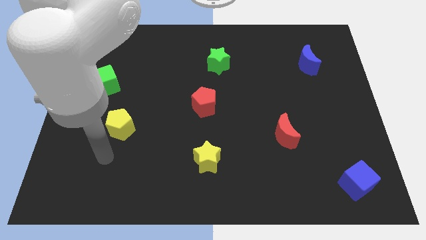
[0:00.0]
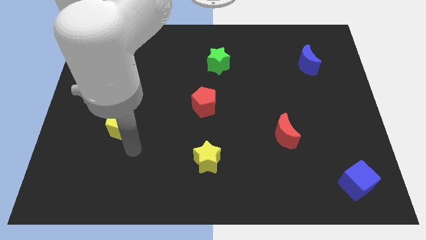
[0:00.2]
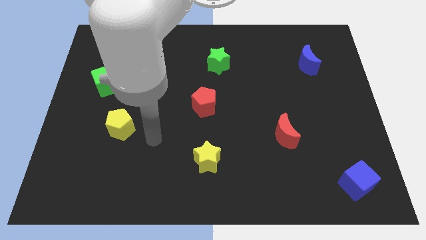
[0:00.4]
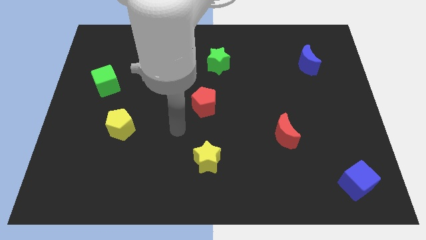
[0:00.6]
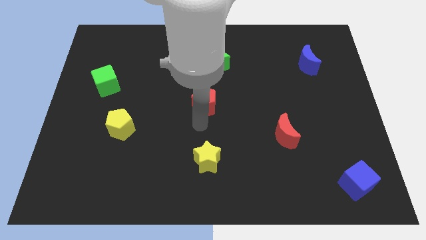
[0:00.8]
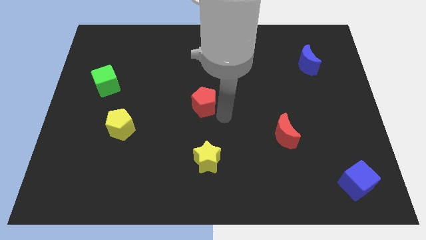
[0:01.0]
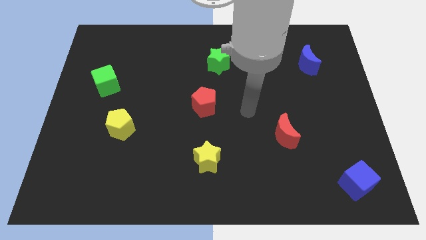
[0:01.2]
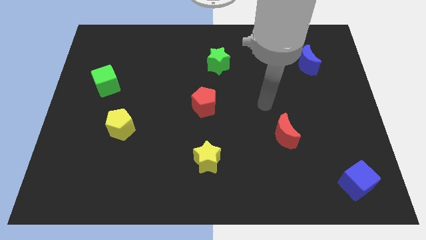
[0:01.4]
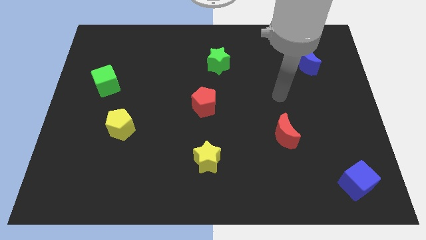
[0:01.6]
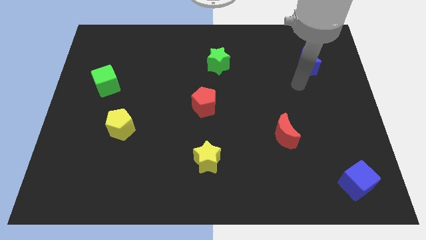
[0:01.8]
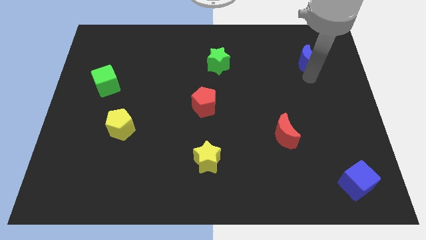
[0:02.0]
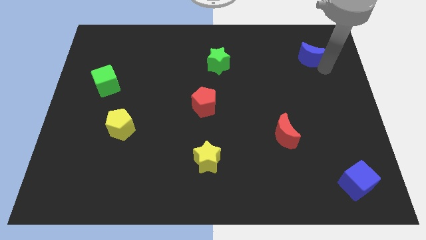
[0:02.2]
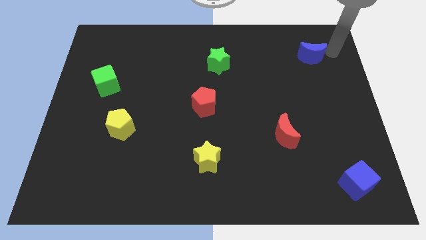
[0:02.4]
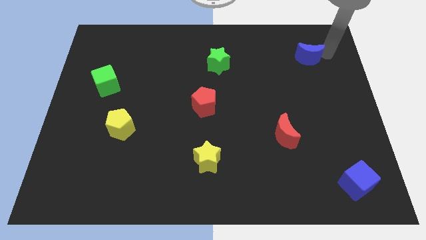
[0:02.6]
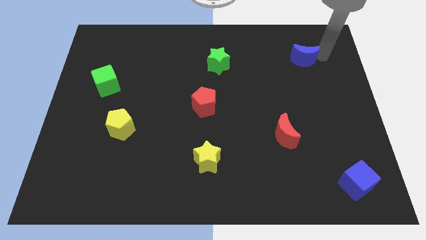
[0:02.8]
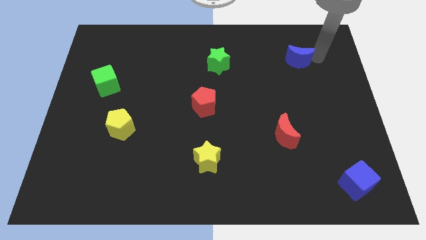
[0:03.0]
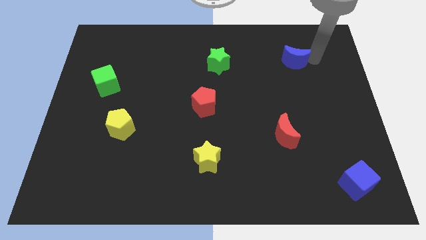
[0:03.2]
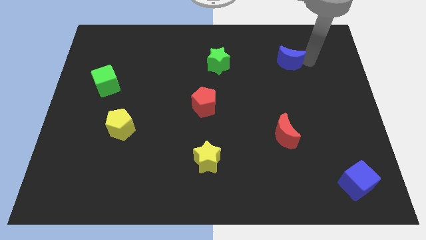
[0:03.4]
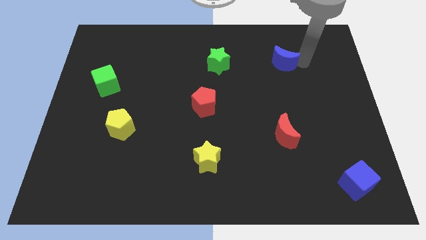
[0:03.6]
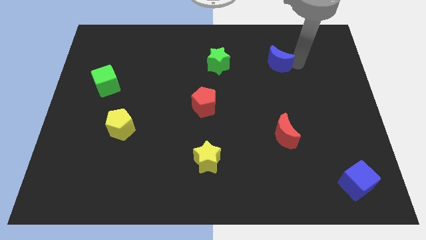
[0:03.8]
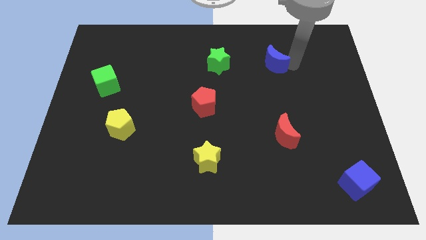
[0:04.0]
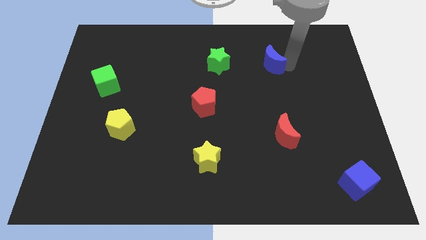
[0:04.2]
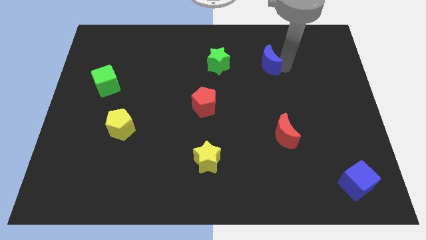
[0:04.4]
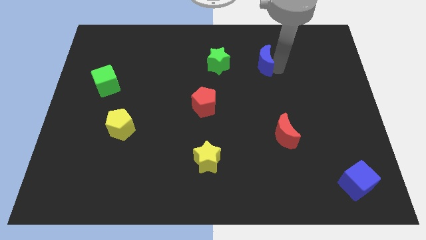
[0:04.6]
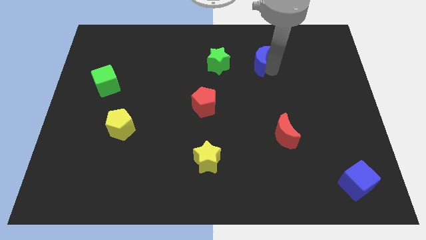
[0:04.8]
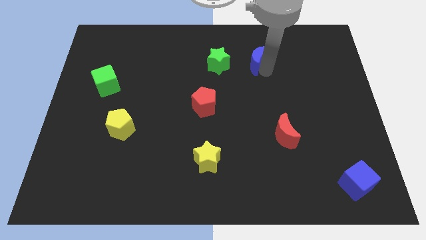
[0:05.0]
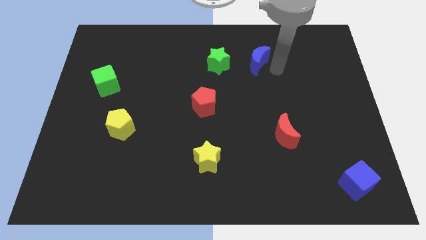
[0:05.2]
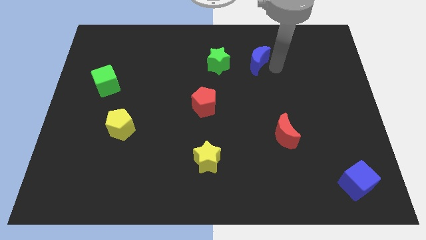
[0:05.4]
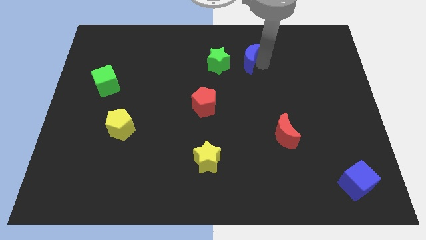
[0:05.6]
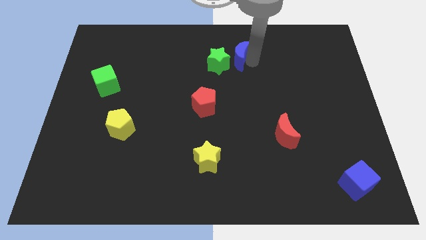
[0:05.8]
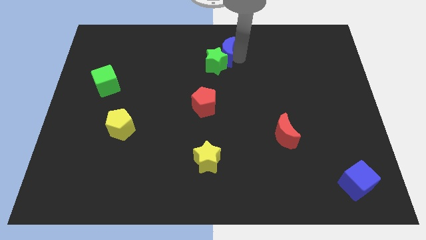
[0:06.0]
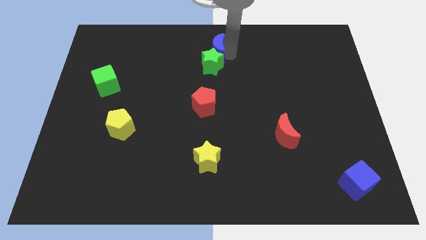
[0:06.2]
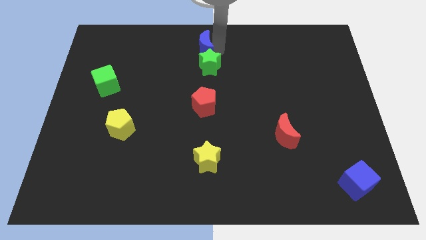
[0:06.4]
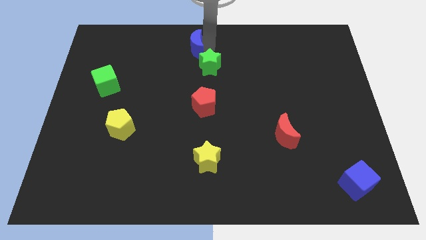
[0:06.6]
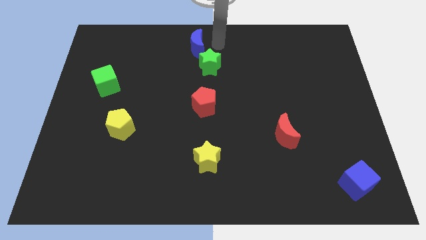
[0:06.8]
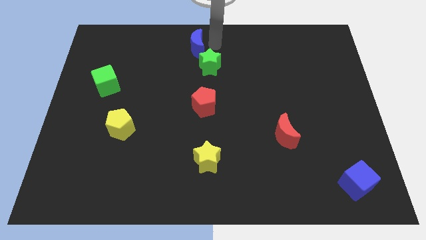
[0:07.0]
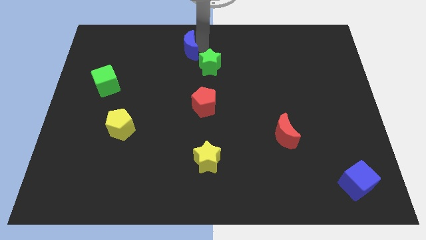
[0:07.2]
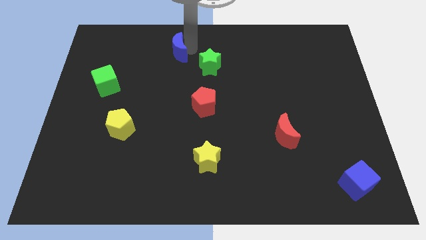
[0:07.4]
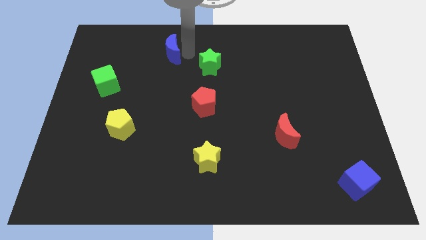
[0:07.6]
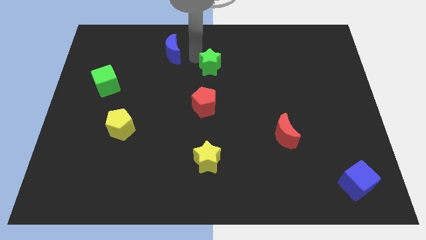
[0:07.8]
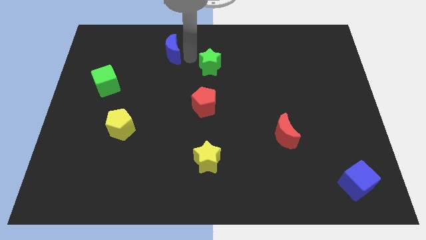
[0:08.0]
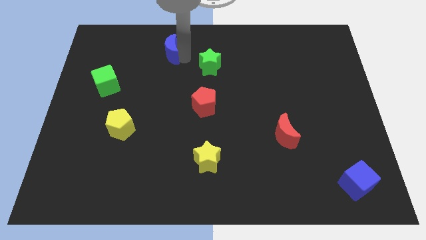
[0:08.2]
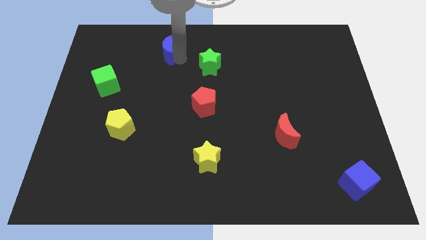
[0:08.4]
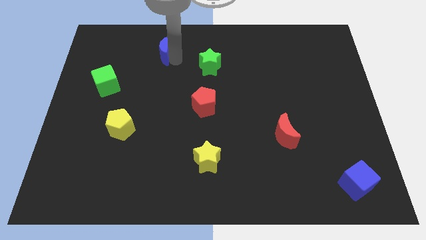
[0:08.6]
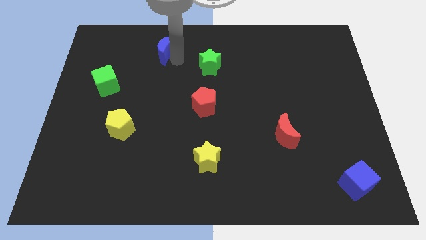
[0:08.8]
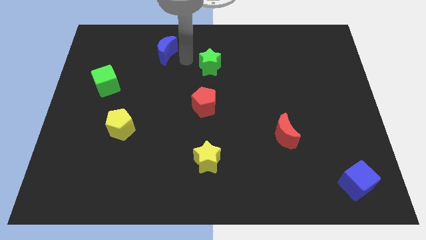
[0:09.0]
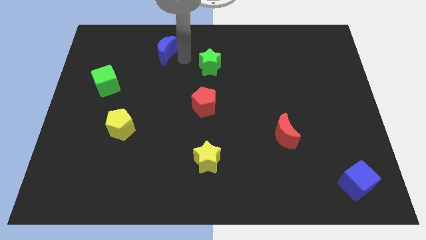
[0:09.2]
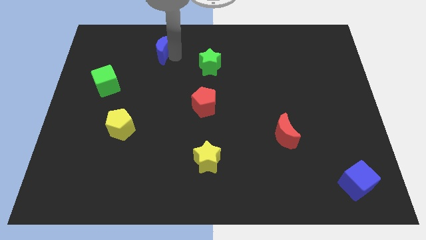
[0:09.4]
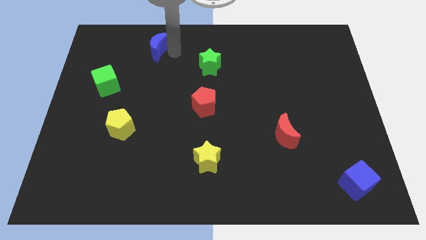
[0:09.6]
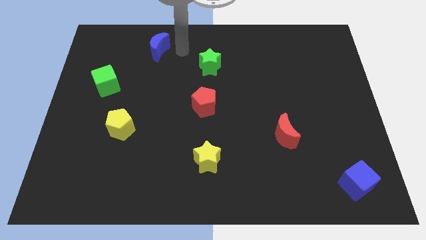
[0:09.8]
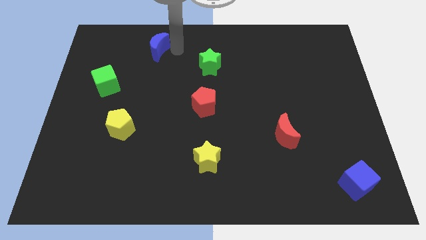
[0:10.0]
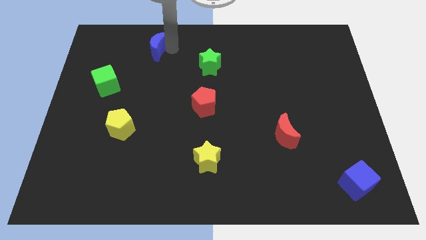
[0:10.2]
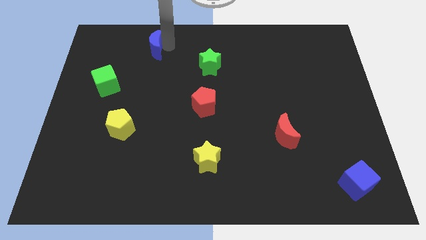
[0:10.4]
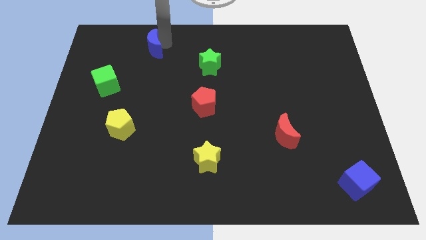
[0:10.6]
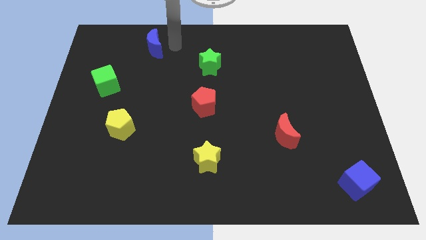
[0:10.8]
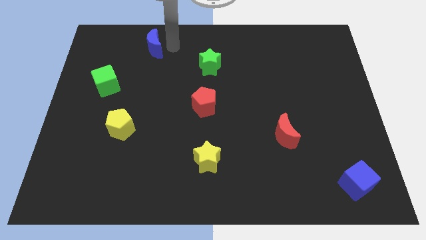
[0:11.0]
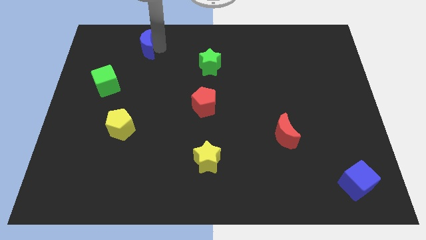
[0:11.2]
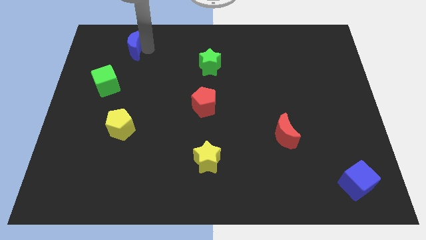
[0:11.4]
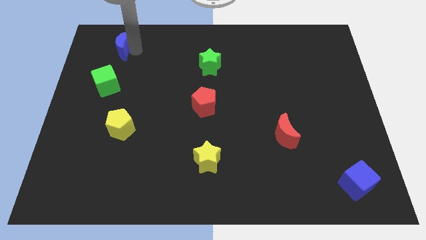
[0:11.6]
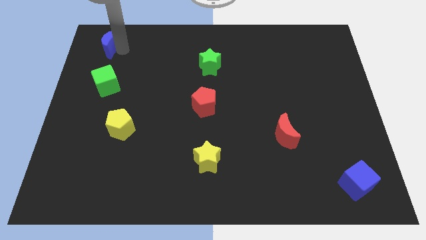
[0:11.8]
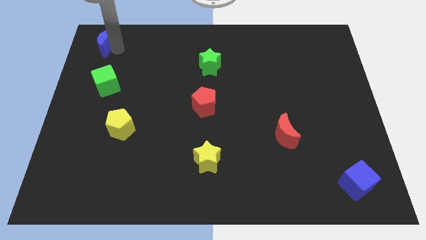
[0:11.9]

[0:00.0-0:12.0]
move the blue moon to the top left

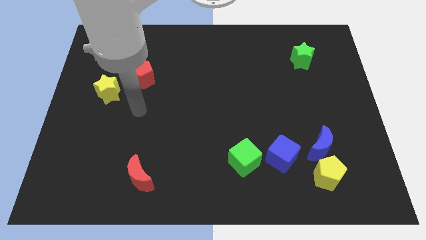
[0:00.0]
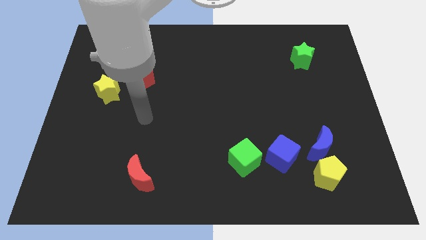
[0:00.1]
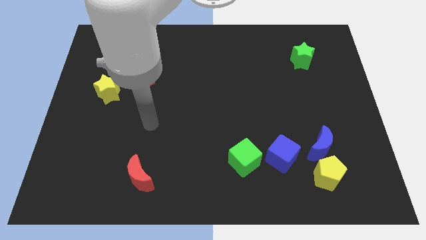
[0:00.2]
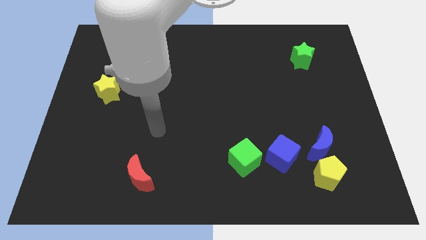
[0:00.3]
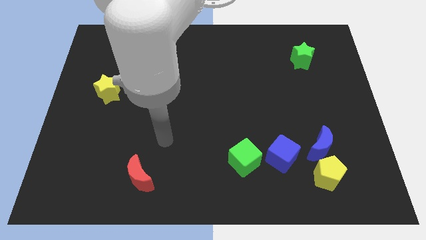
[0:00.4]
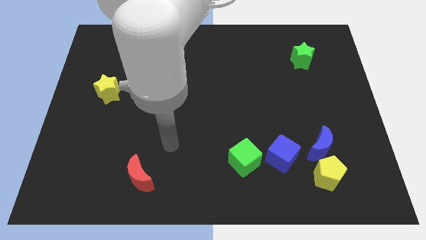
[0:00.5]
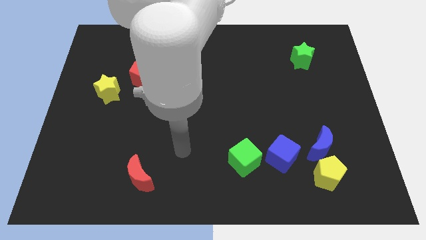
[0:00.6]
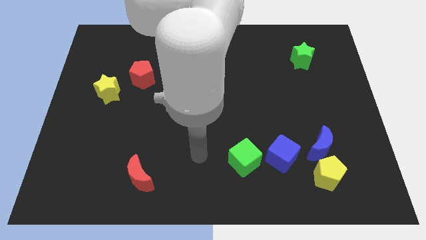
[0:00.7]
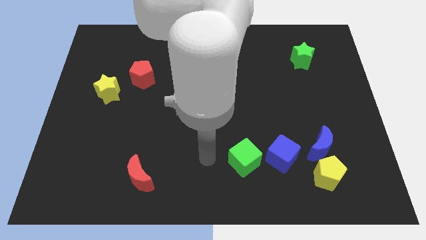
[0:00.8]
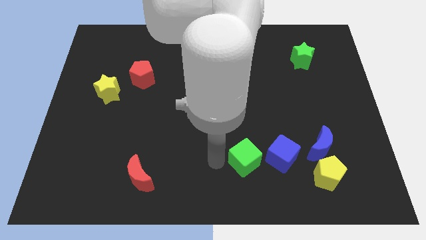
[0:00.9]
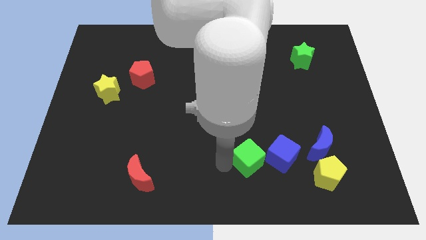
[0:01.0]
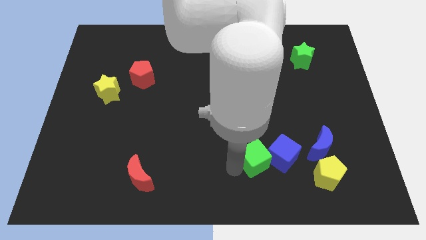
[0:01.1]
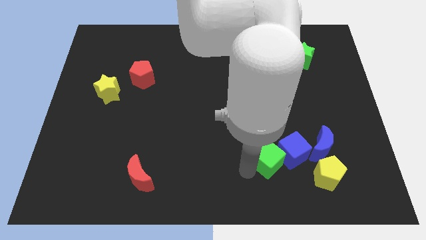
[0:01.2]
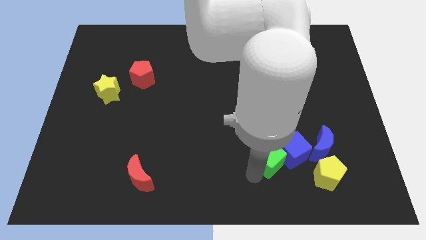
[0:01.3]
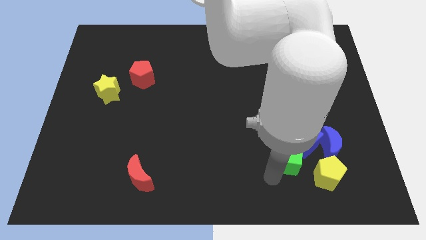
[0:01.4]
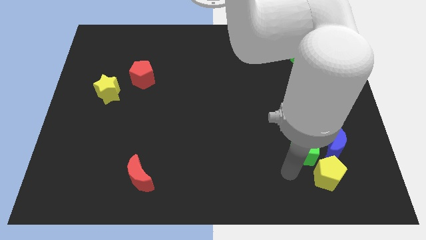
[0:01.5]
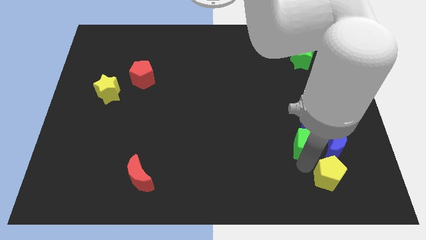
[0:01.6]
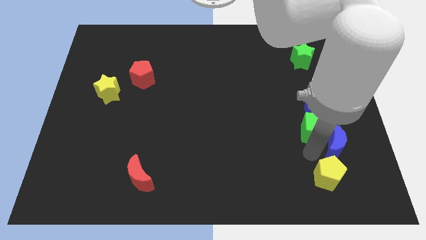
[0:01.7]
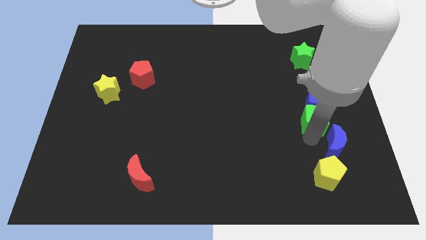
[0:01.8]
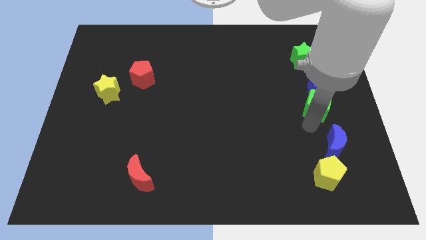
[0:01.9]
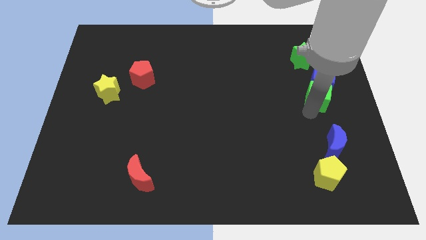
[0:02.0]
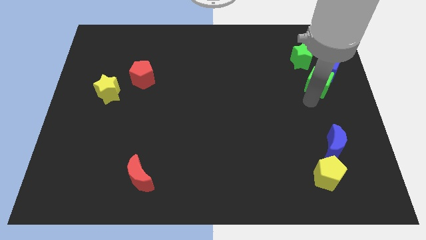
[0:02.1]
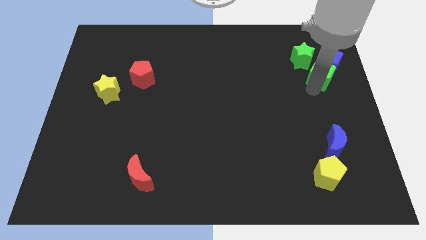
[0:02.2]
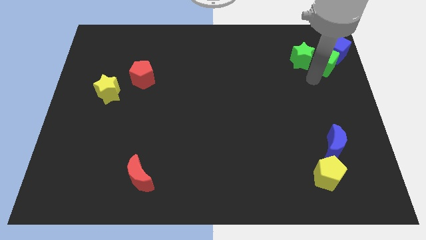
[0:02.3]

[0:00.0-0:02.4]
put the blue cube to the upper right corner
